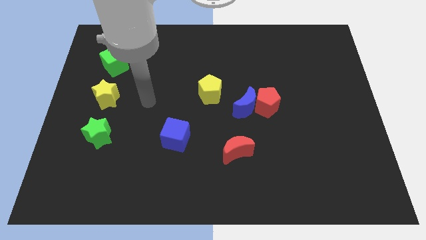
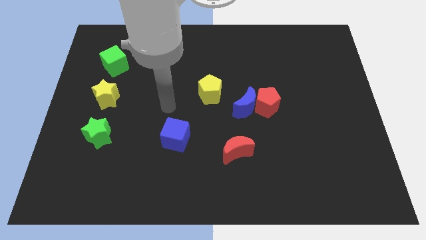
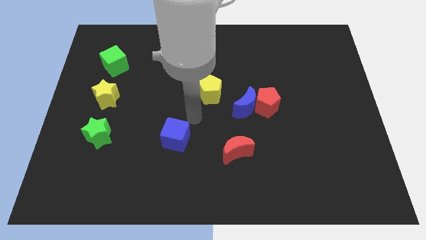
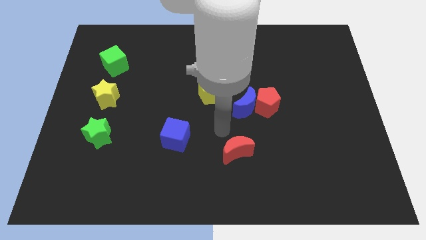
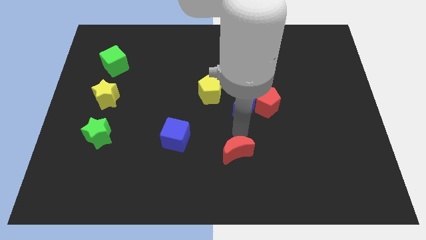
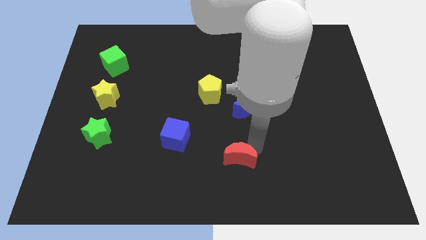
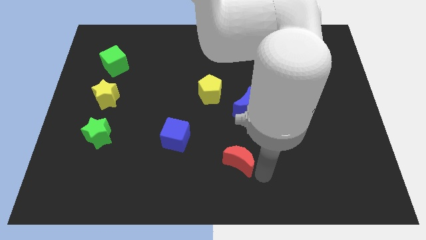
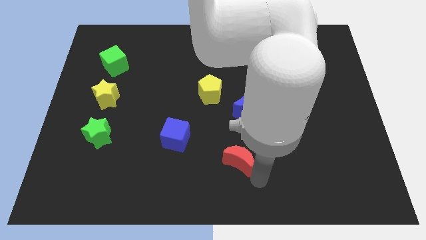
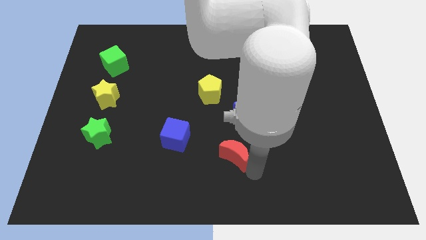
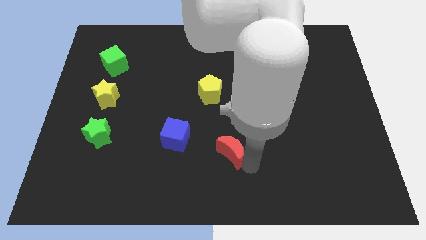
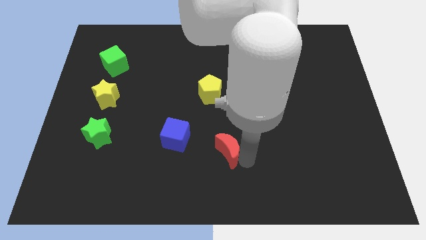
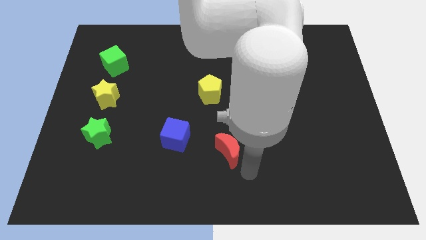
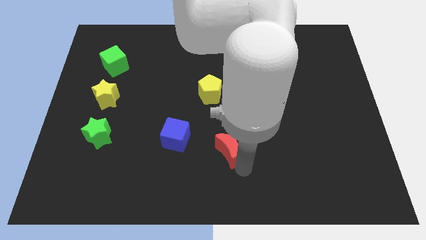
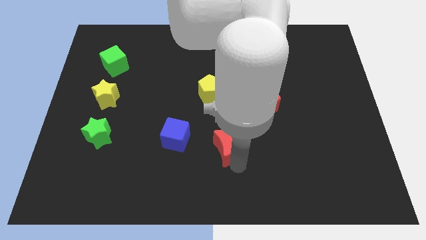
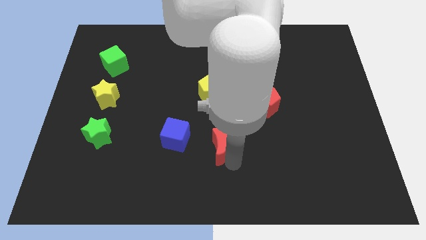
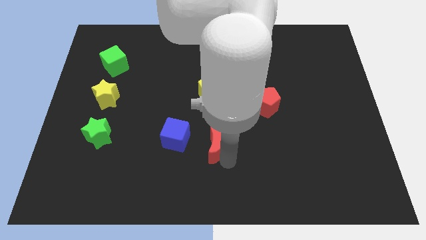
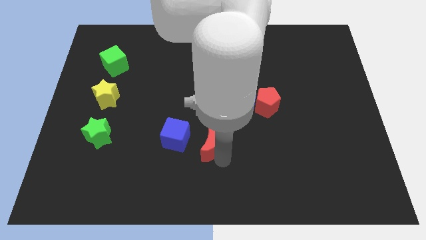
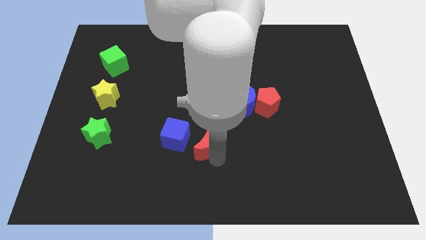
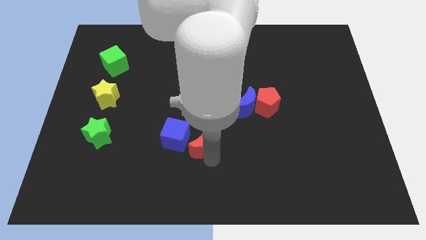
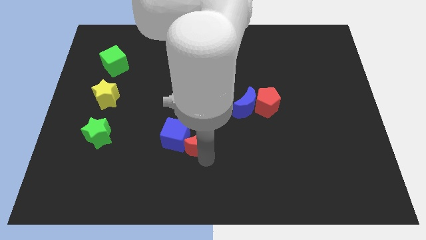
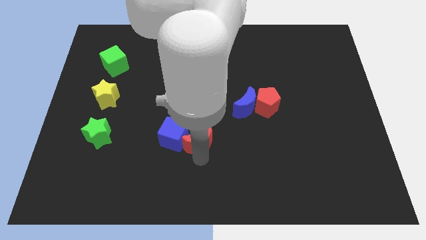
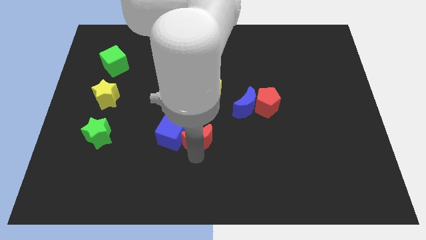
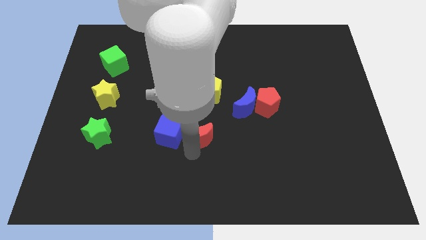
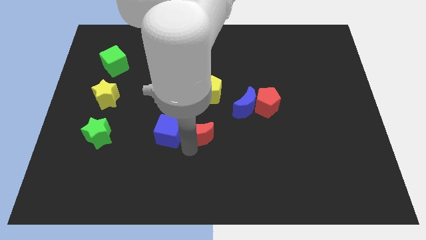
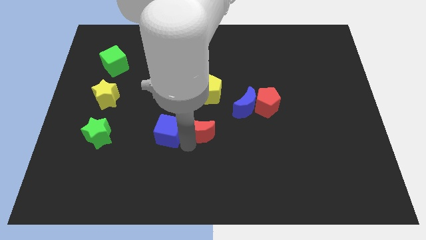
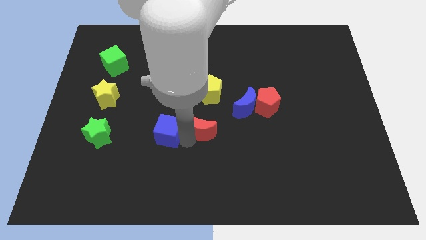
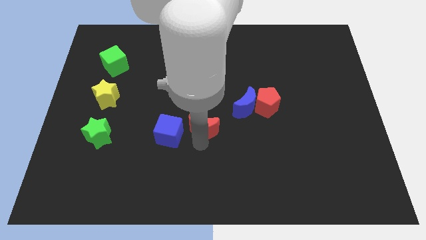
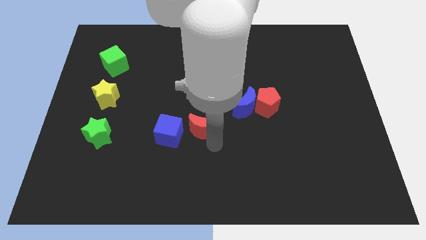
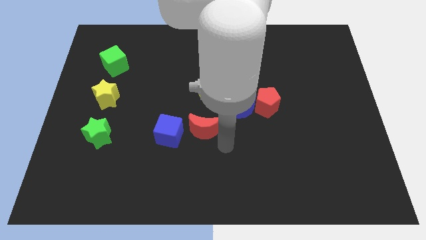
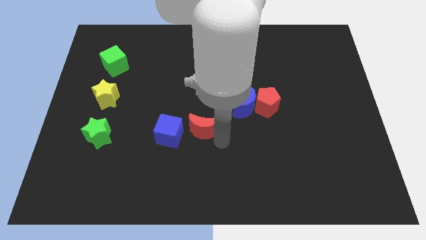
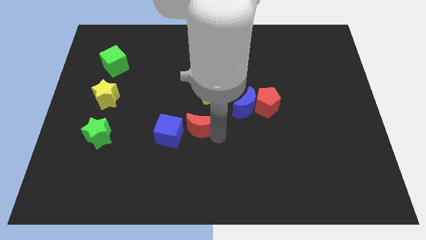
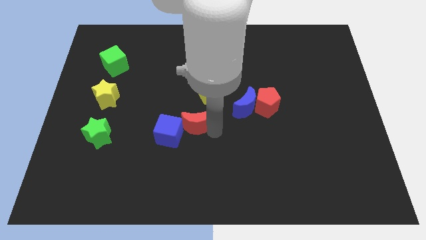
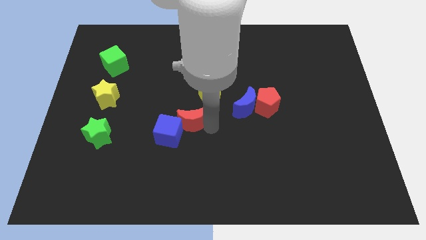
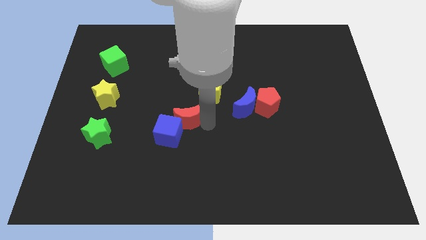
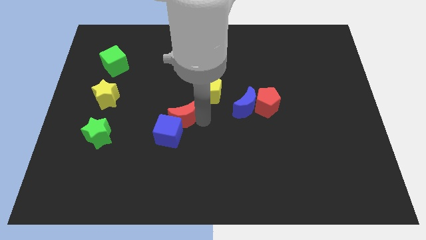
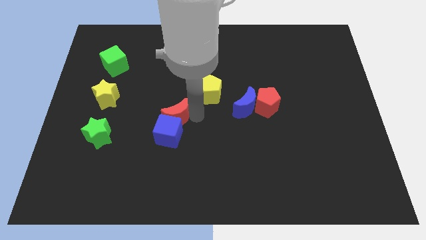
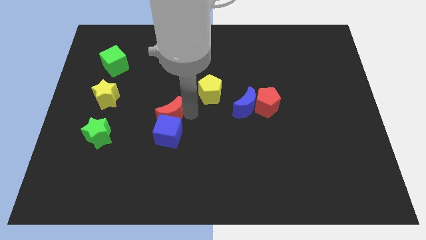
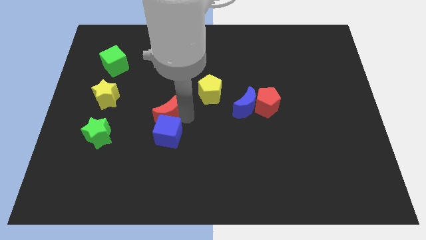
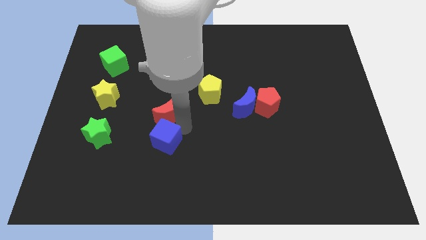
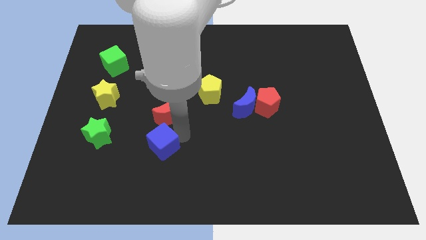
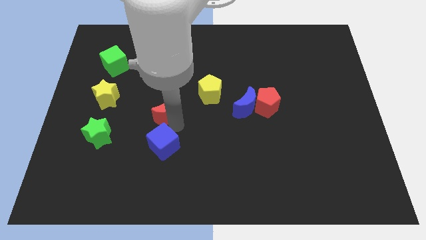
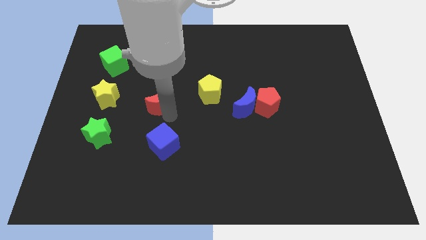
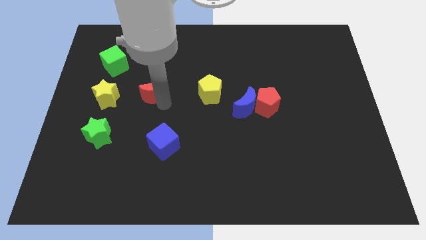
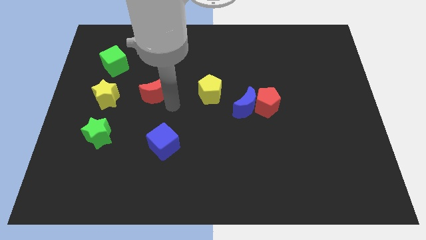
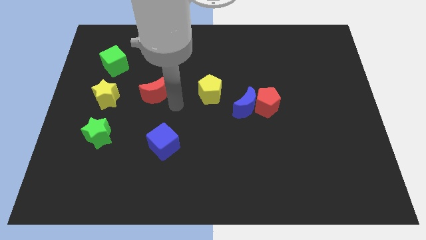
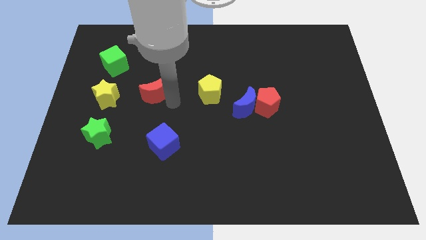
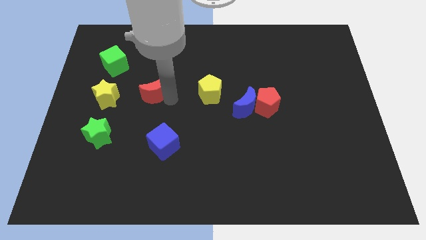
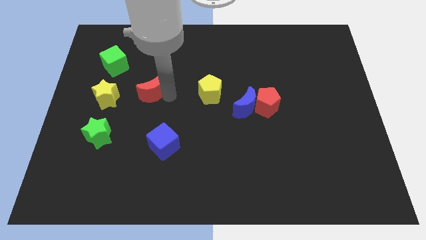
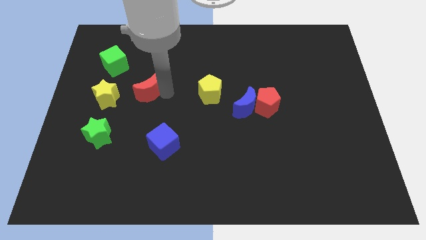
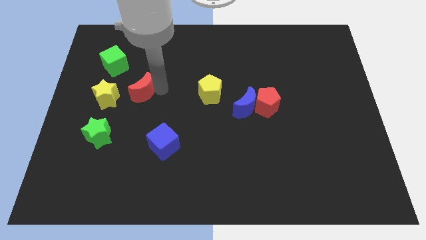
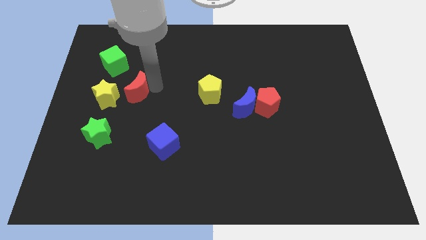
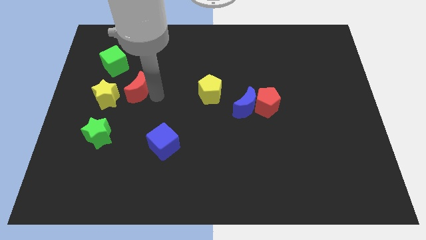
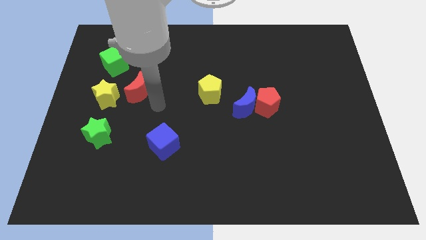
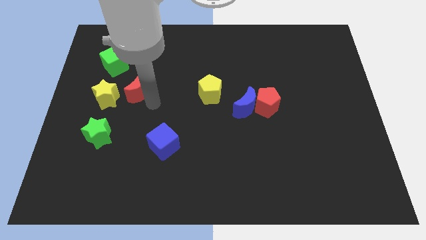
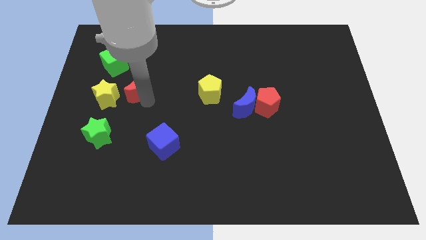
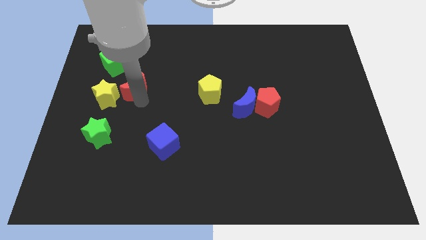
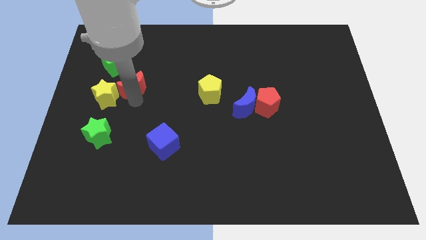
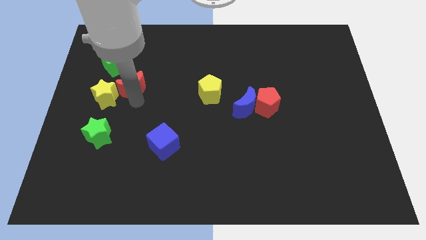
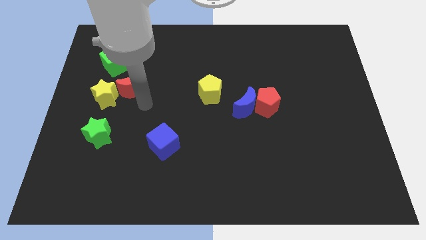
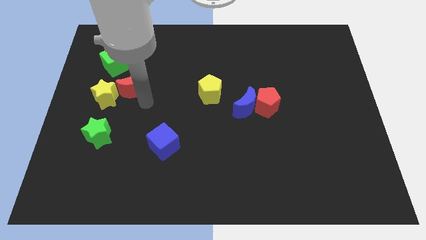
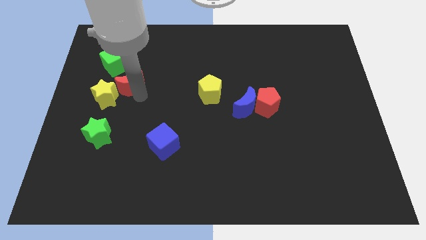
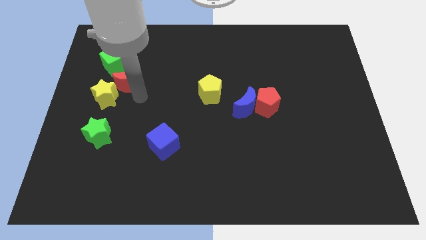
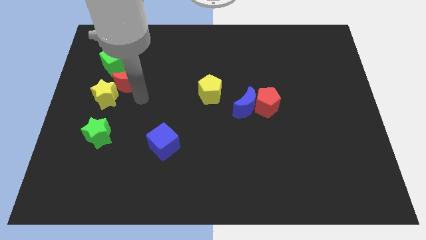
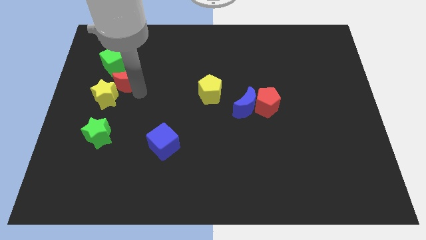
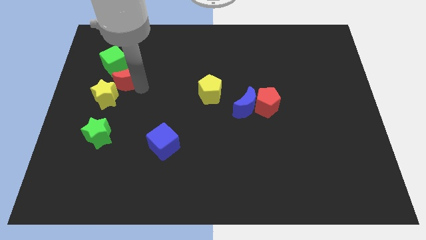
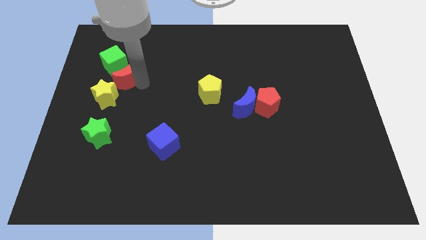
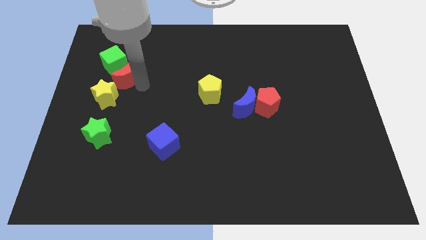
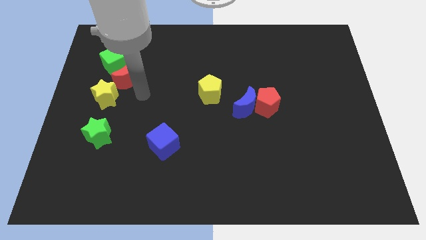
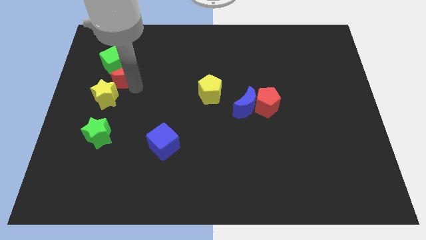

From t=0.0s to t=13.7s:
move the red moon next to the green cube

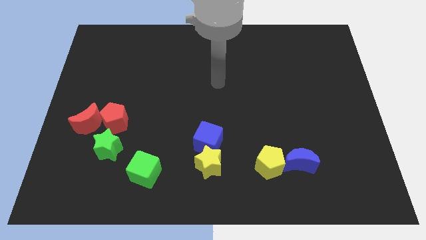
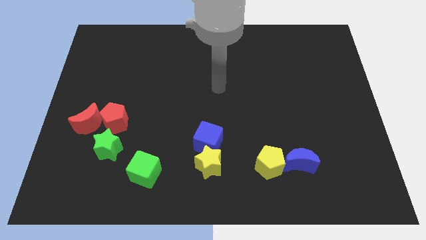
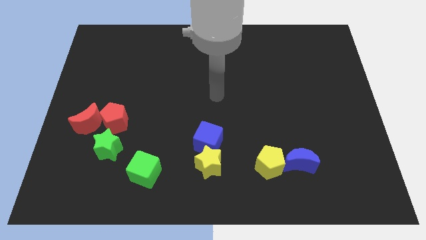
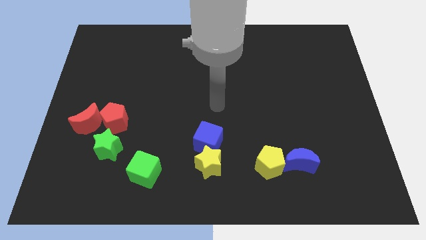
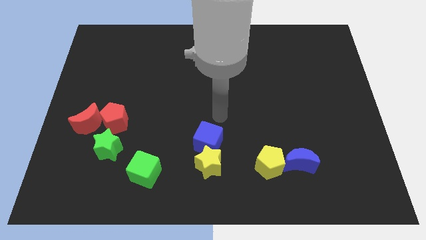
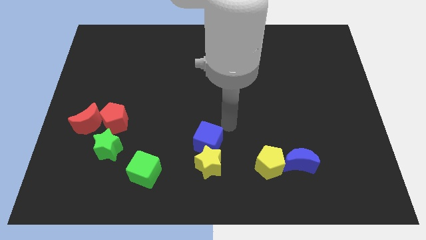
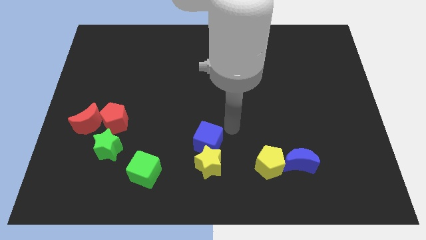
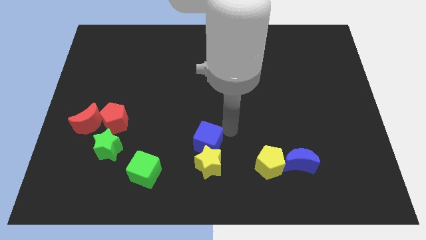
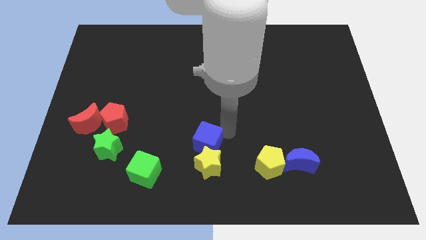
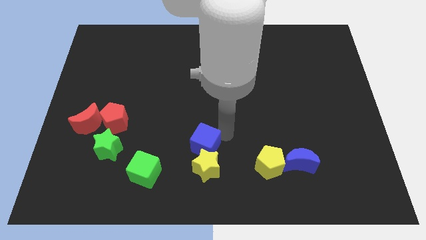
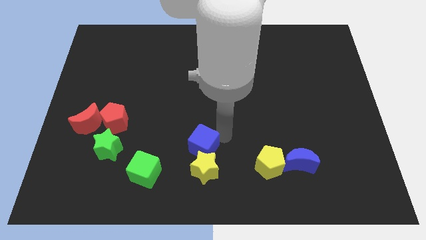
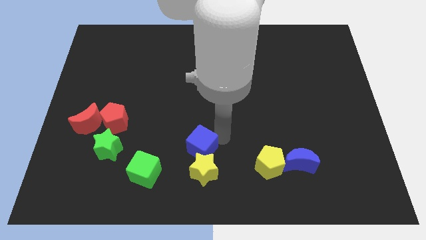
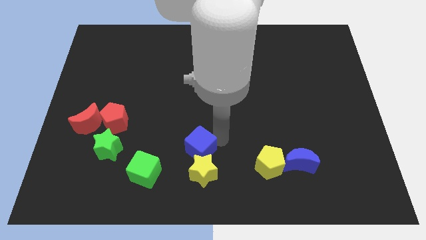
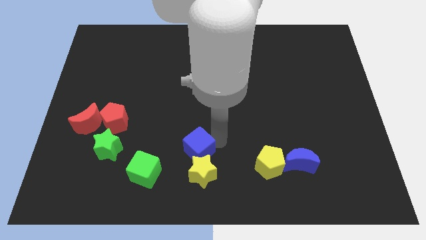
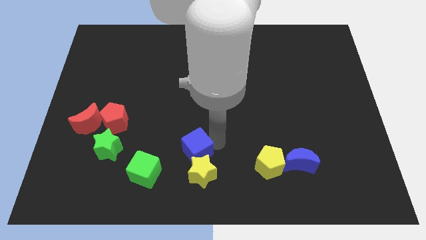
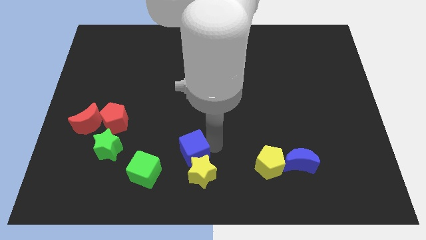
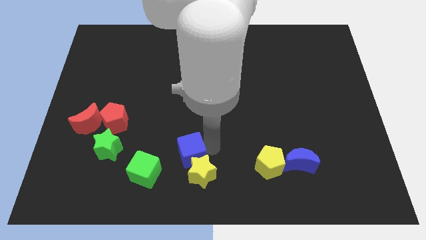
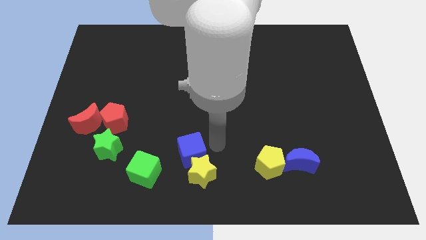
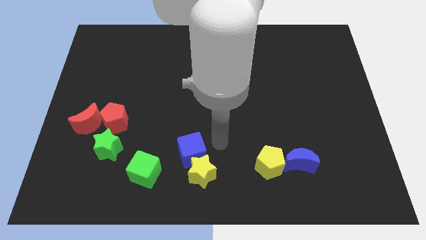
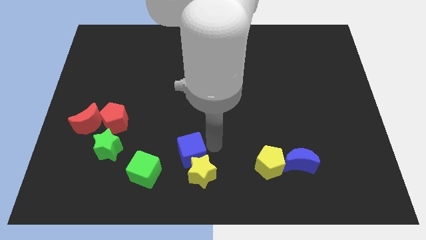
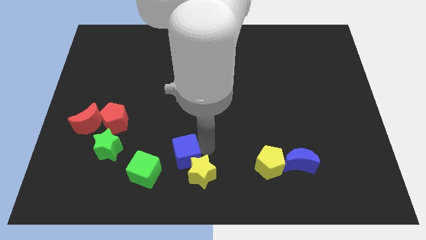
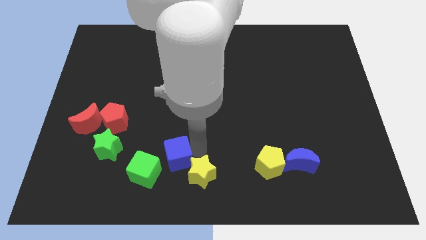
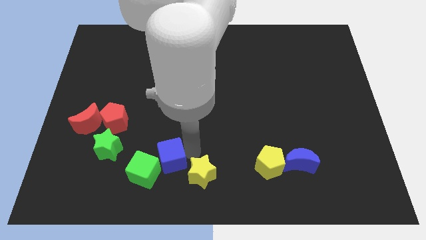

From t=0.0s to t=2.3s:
push the blue cube close to the green cube
